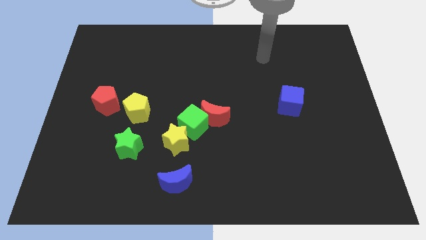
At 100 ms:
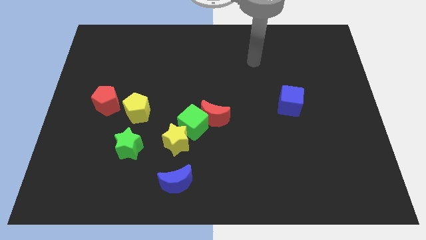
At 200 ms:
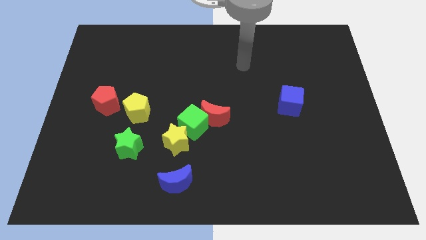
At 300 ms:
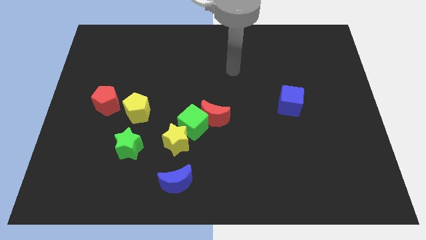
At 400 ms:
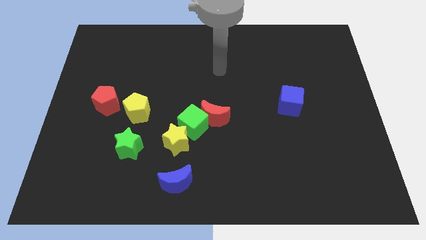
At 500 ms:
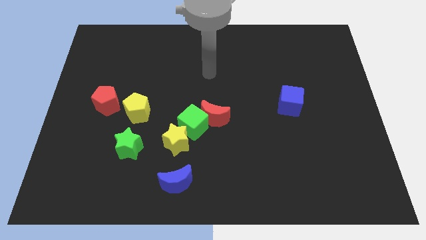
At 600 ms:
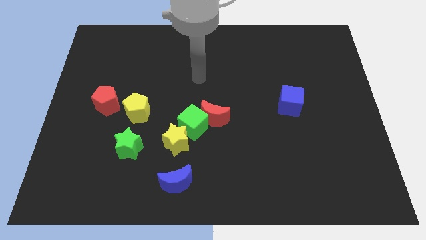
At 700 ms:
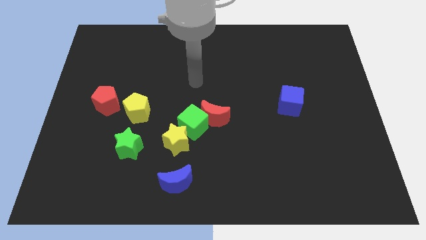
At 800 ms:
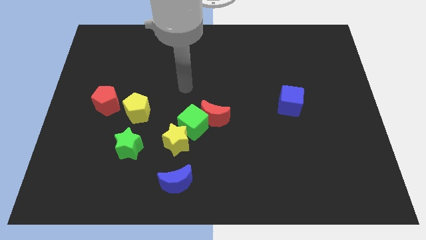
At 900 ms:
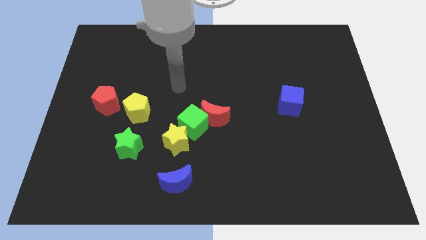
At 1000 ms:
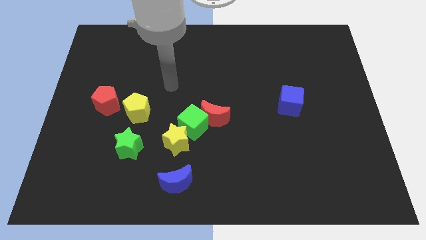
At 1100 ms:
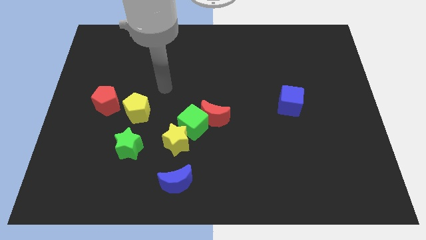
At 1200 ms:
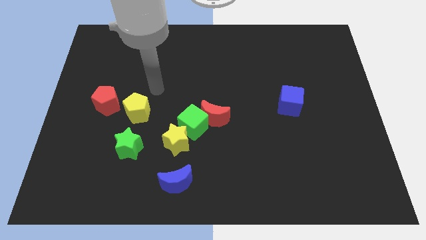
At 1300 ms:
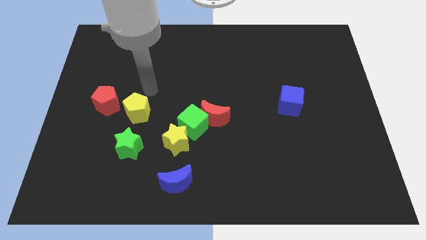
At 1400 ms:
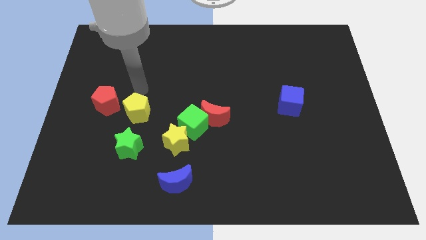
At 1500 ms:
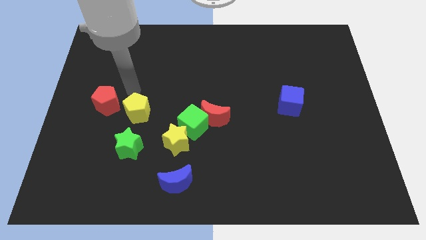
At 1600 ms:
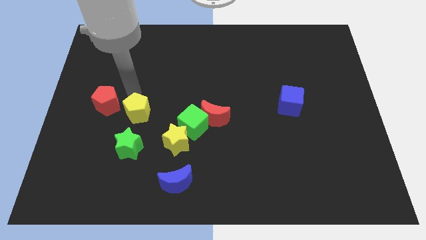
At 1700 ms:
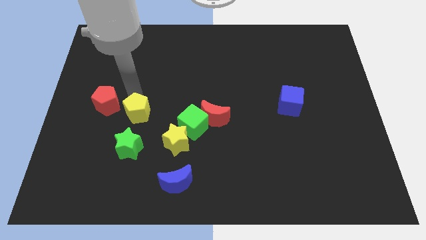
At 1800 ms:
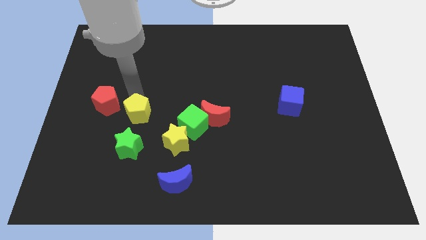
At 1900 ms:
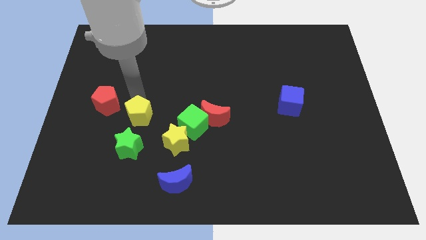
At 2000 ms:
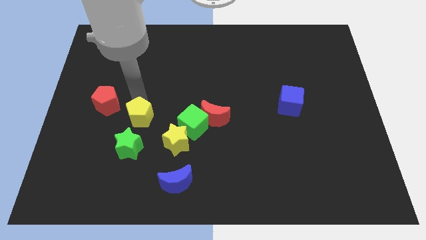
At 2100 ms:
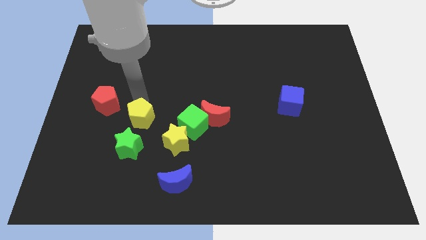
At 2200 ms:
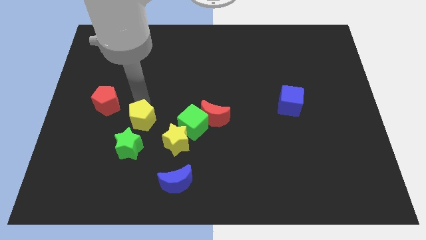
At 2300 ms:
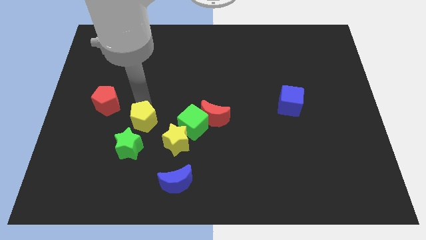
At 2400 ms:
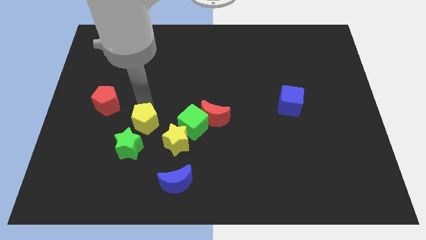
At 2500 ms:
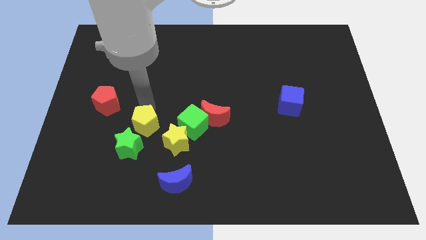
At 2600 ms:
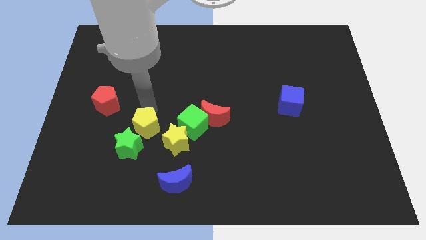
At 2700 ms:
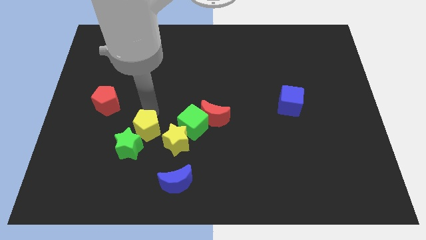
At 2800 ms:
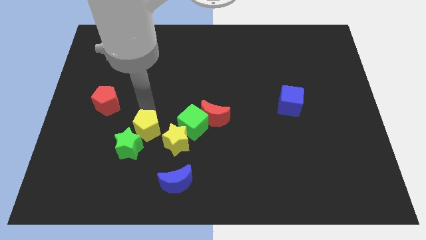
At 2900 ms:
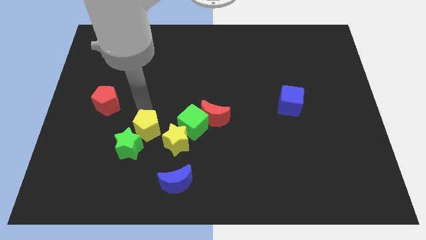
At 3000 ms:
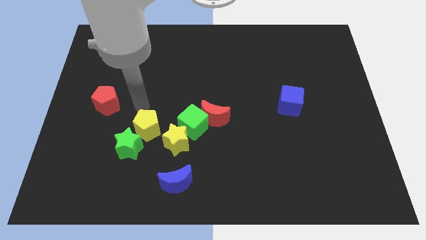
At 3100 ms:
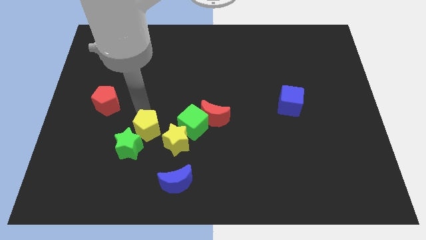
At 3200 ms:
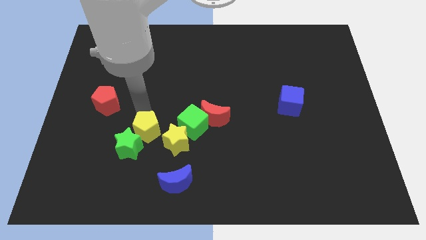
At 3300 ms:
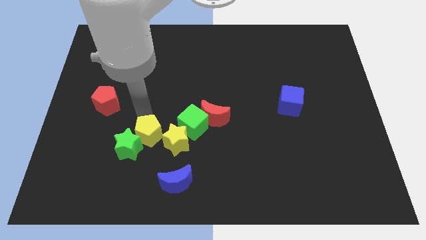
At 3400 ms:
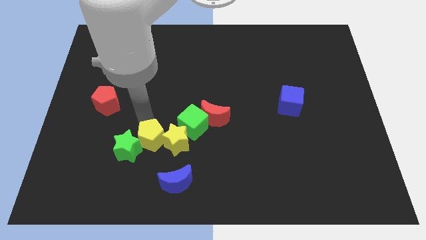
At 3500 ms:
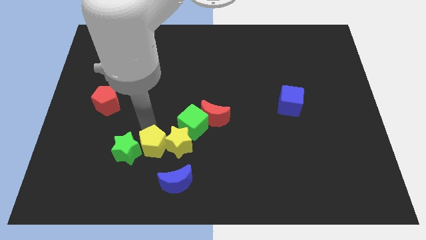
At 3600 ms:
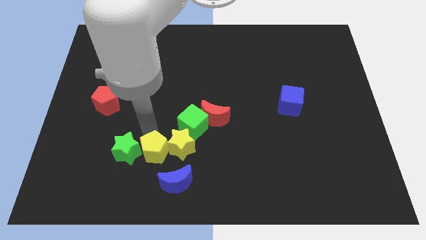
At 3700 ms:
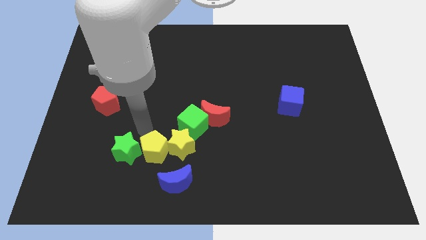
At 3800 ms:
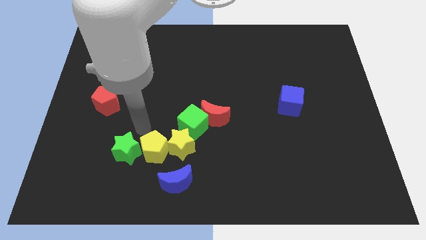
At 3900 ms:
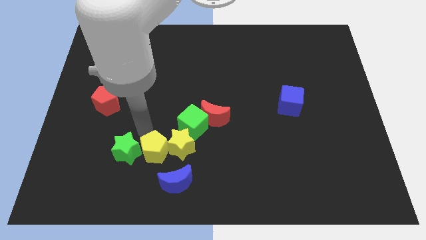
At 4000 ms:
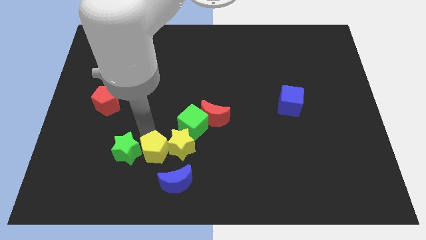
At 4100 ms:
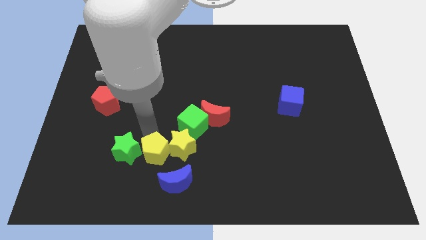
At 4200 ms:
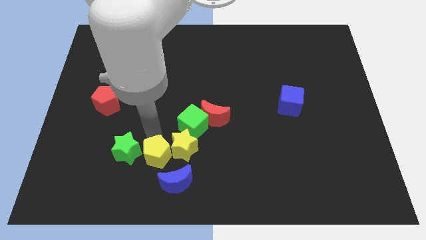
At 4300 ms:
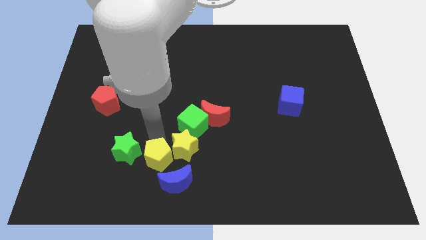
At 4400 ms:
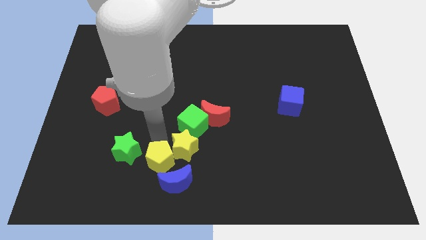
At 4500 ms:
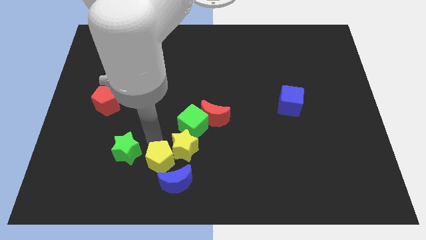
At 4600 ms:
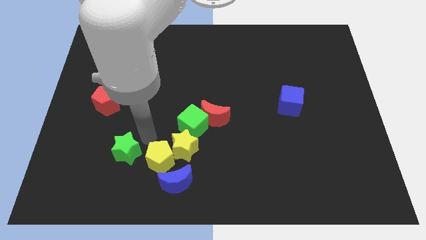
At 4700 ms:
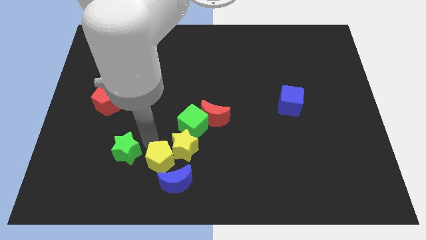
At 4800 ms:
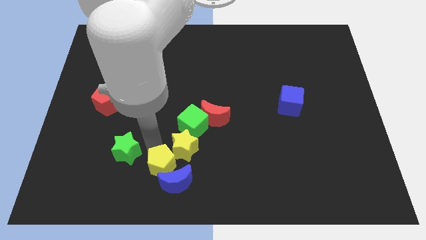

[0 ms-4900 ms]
move the yellow pentagon next to the blue moon

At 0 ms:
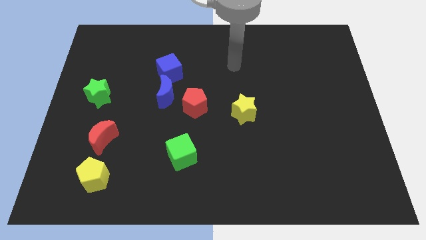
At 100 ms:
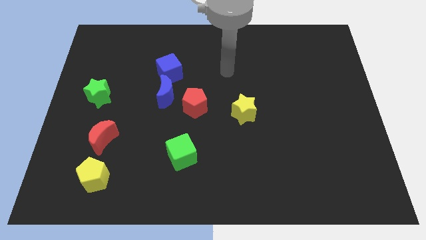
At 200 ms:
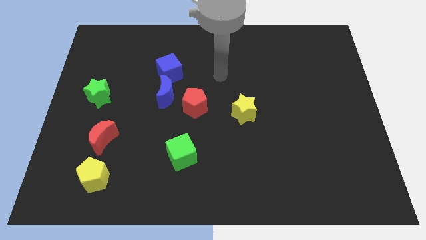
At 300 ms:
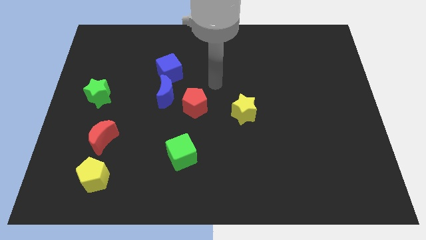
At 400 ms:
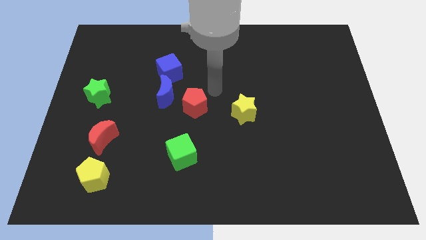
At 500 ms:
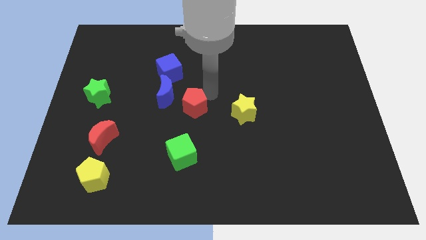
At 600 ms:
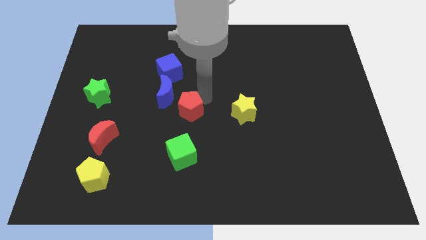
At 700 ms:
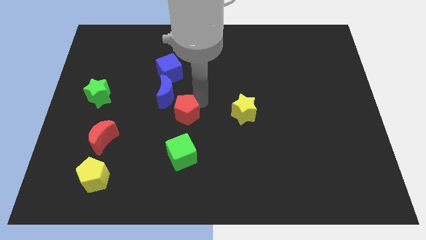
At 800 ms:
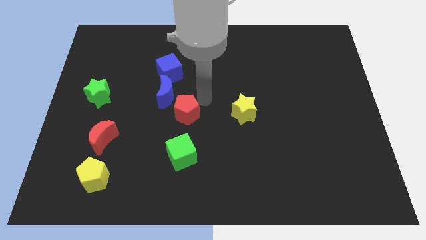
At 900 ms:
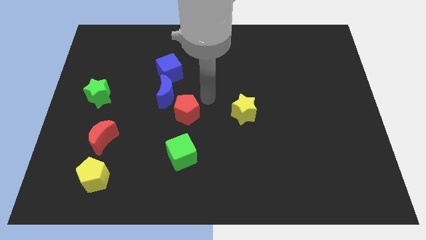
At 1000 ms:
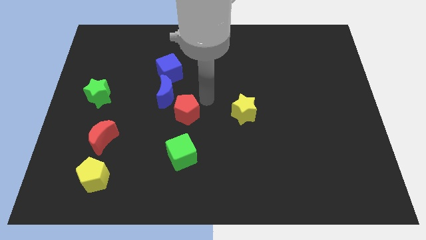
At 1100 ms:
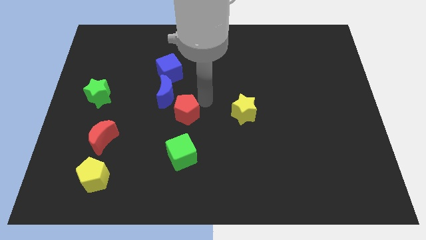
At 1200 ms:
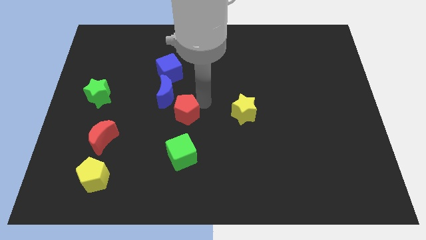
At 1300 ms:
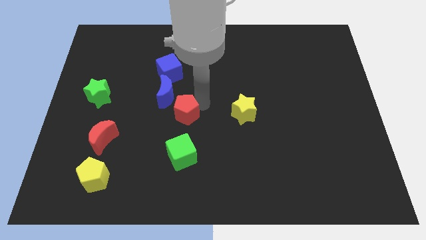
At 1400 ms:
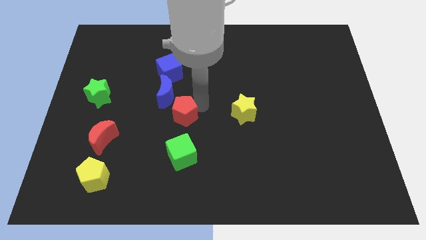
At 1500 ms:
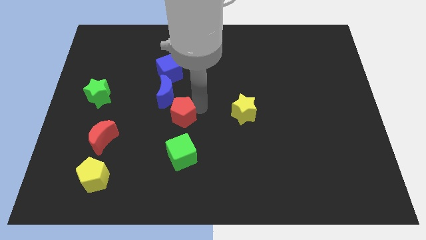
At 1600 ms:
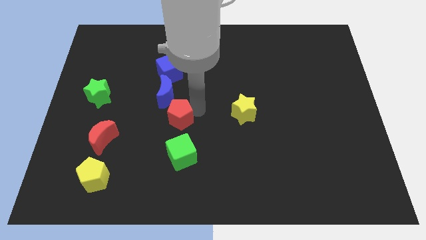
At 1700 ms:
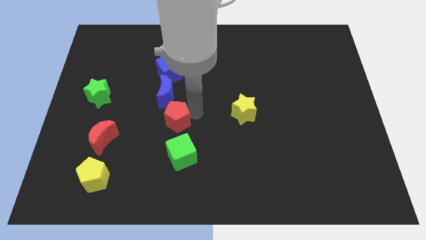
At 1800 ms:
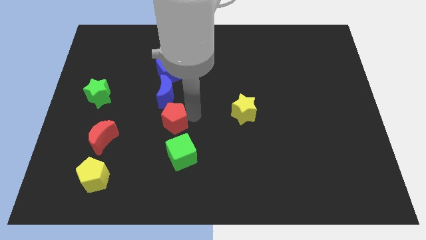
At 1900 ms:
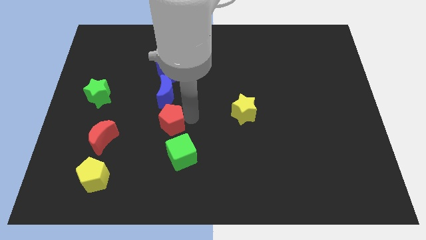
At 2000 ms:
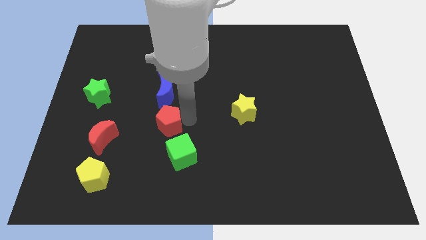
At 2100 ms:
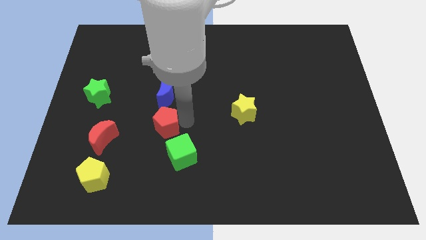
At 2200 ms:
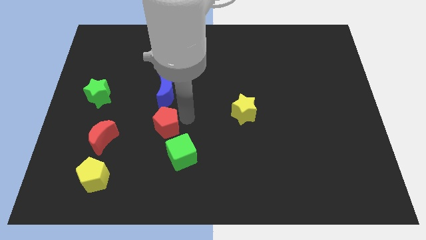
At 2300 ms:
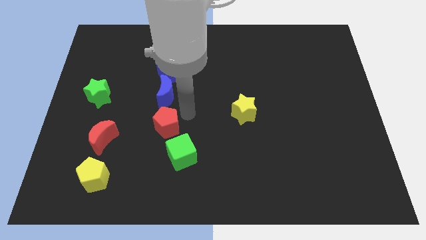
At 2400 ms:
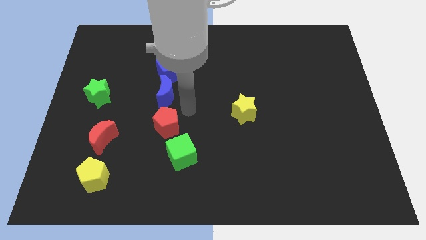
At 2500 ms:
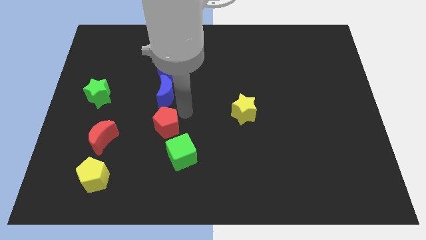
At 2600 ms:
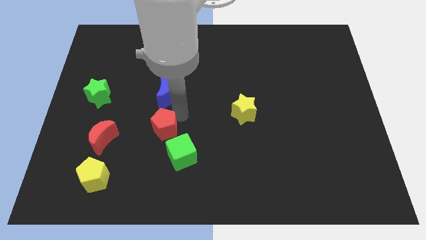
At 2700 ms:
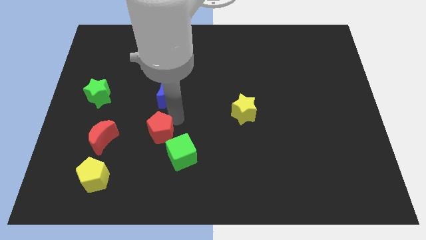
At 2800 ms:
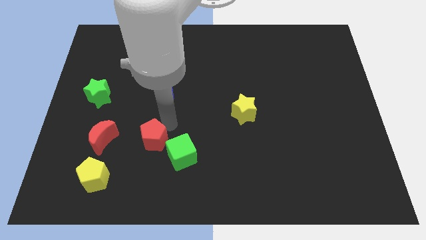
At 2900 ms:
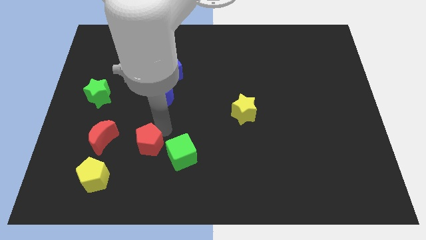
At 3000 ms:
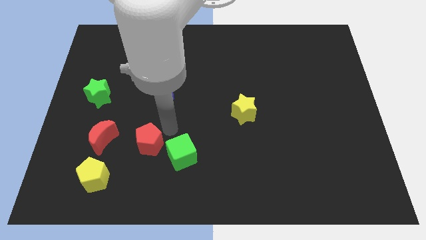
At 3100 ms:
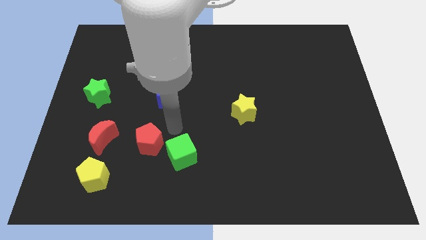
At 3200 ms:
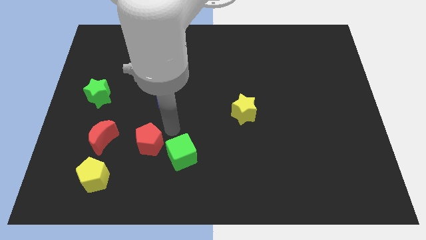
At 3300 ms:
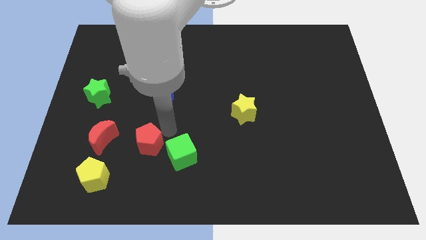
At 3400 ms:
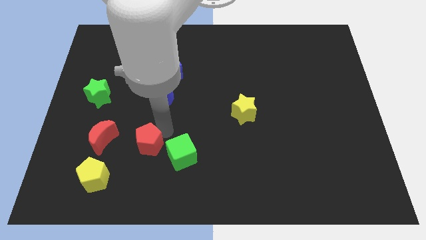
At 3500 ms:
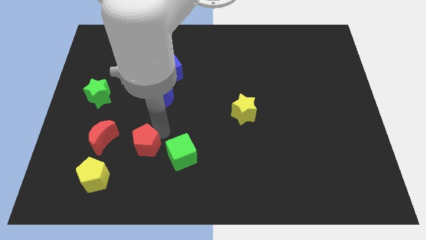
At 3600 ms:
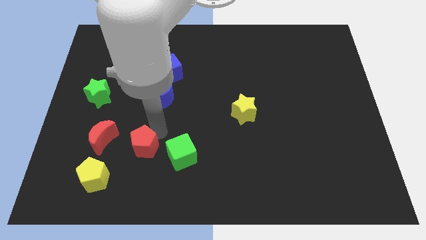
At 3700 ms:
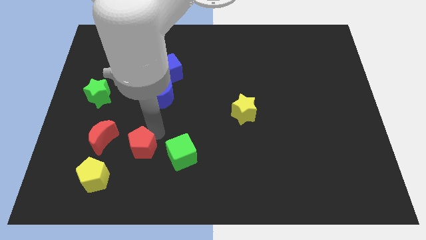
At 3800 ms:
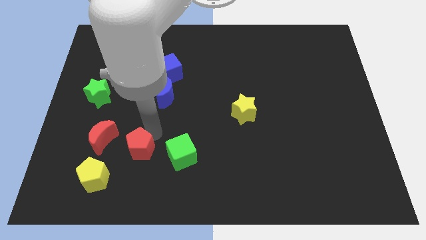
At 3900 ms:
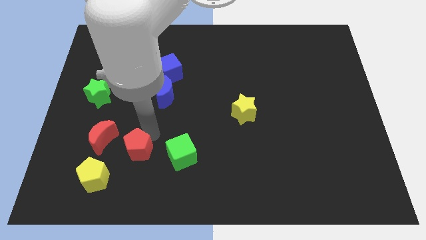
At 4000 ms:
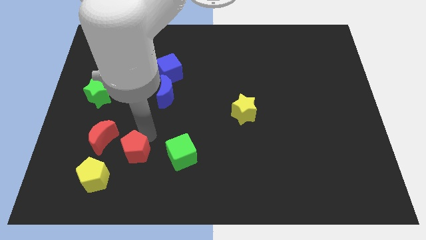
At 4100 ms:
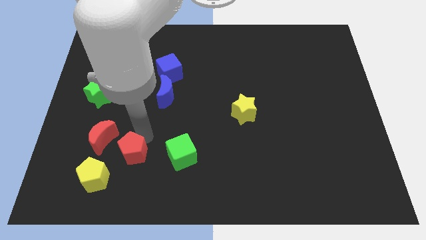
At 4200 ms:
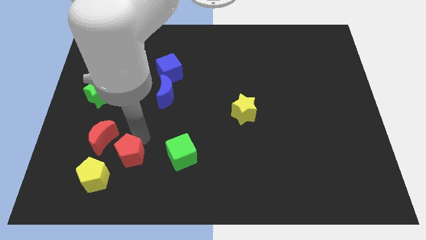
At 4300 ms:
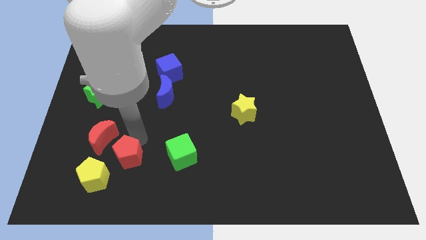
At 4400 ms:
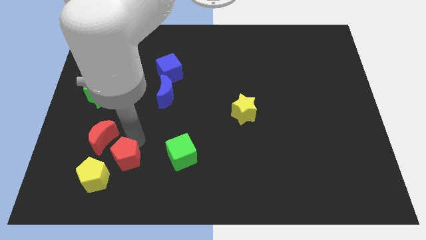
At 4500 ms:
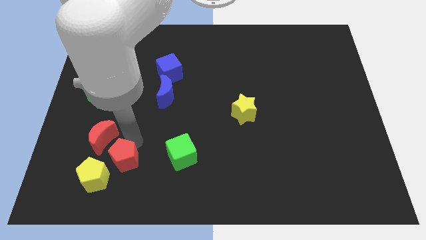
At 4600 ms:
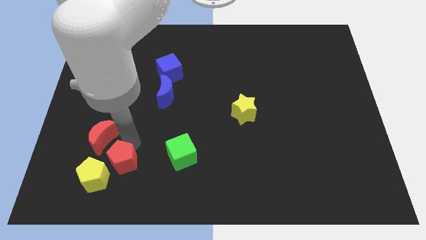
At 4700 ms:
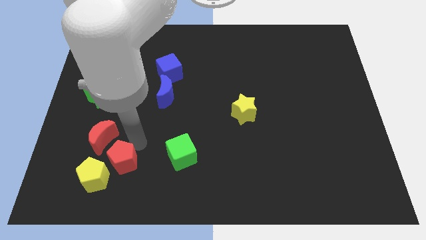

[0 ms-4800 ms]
put the red pentagon close to the yellow pentagon
